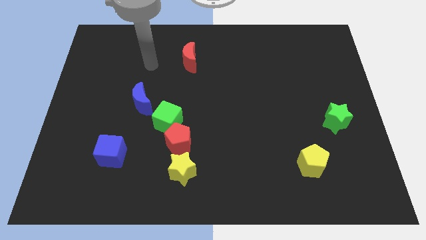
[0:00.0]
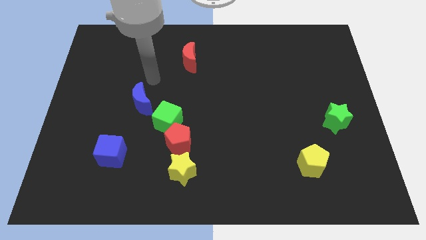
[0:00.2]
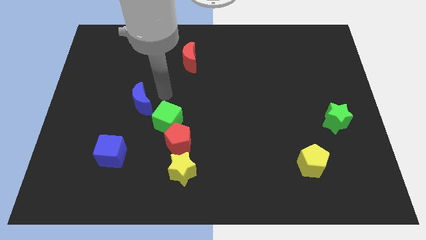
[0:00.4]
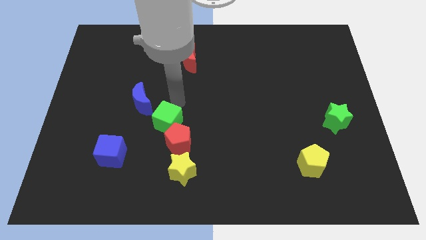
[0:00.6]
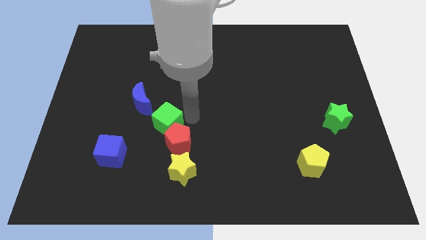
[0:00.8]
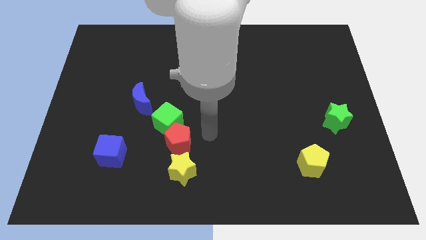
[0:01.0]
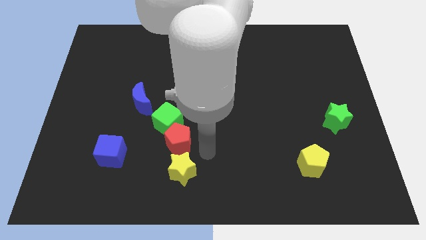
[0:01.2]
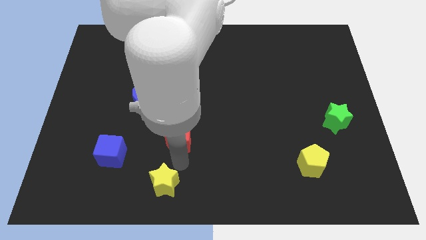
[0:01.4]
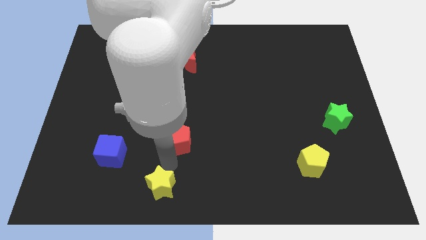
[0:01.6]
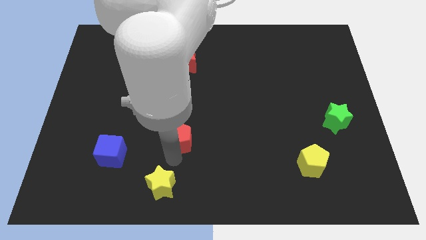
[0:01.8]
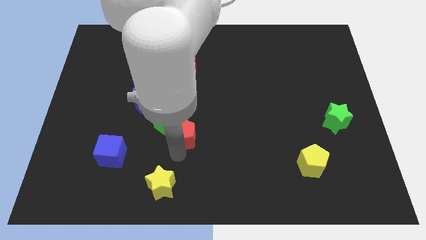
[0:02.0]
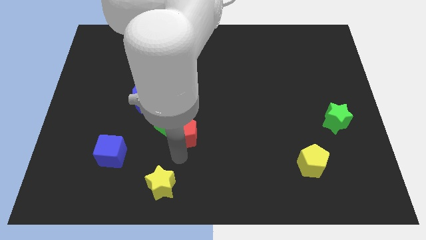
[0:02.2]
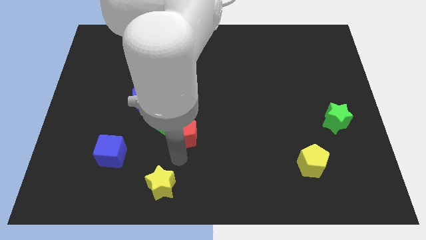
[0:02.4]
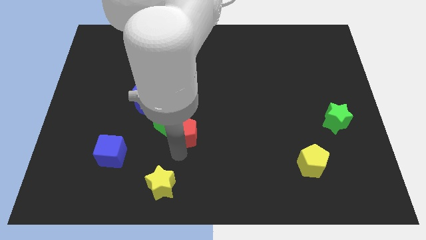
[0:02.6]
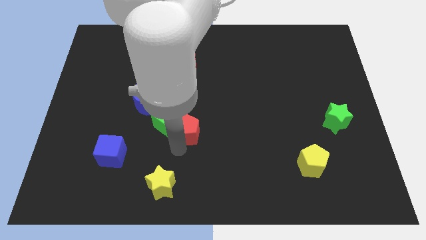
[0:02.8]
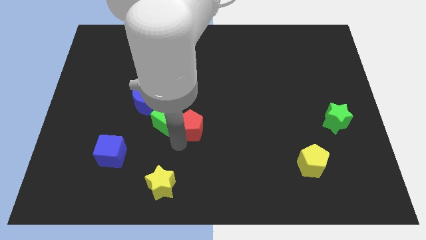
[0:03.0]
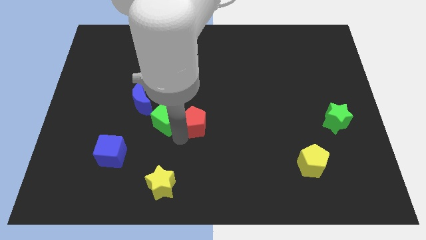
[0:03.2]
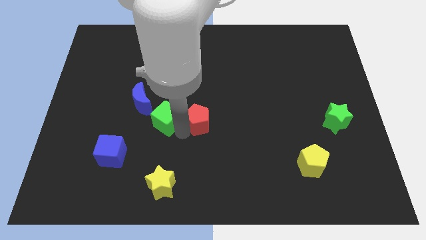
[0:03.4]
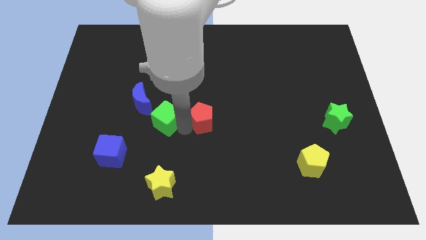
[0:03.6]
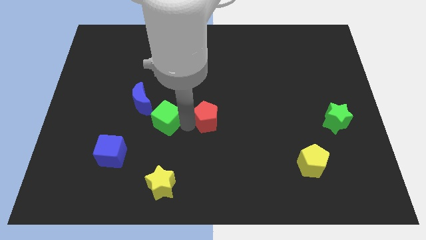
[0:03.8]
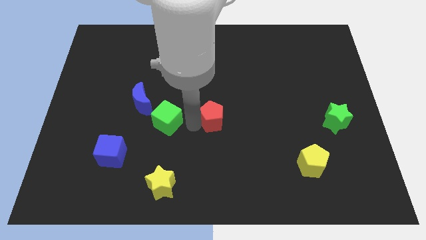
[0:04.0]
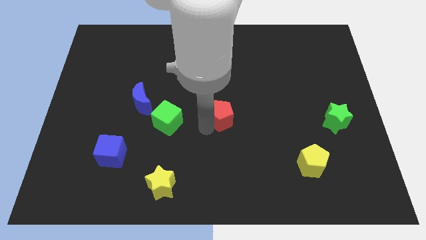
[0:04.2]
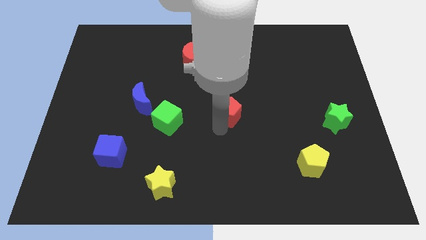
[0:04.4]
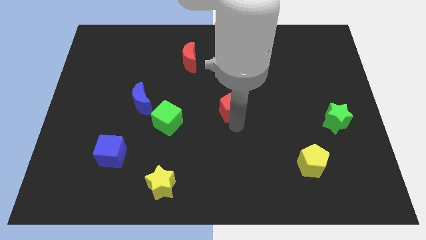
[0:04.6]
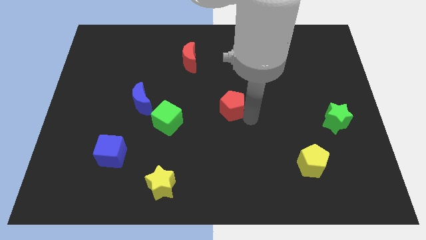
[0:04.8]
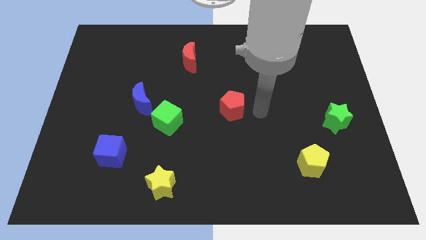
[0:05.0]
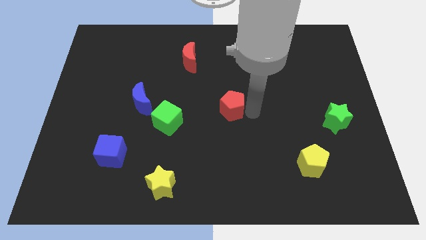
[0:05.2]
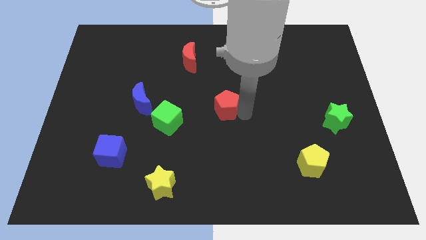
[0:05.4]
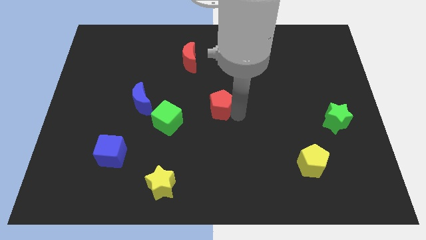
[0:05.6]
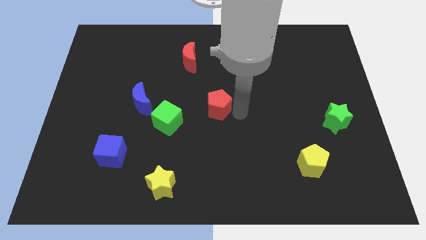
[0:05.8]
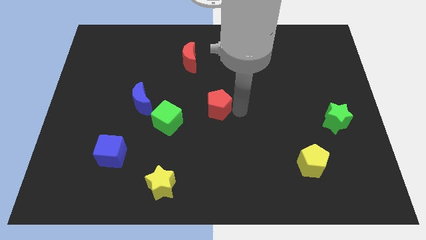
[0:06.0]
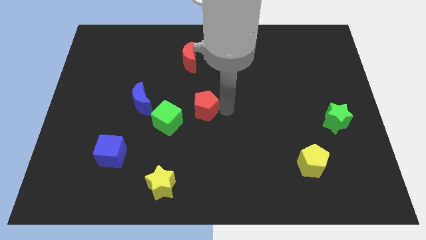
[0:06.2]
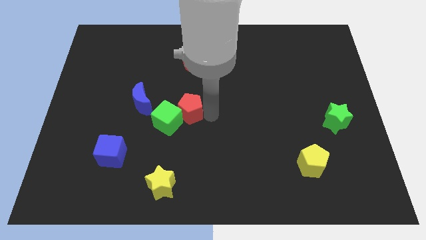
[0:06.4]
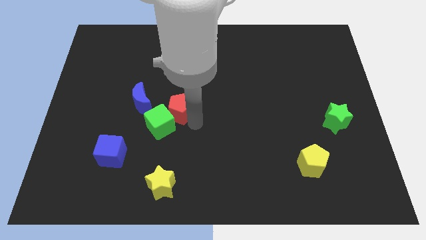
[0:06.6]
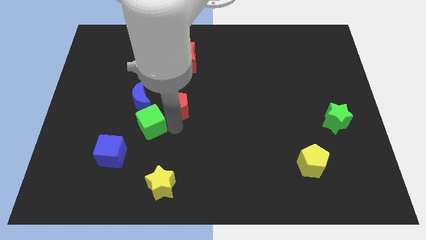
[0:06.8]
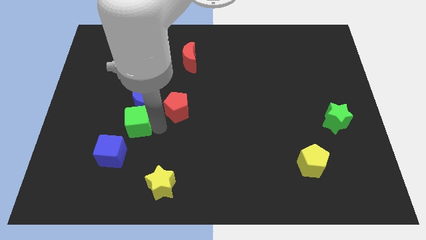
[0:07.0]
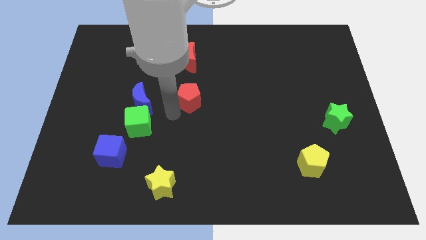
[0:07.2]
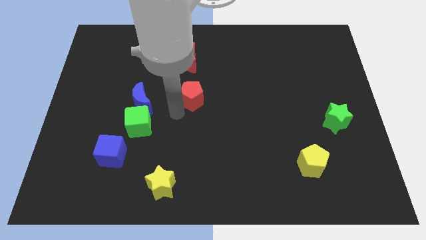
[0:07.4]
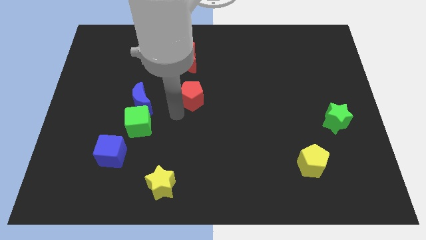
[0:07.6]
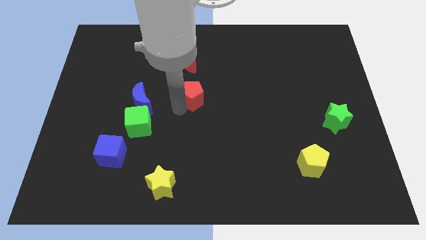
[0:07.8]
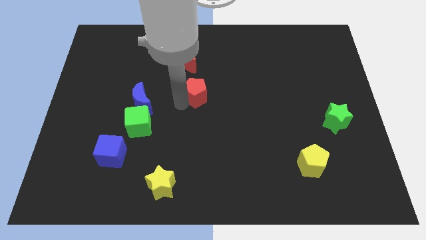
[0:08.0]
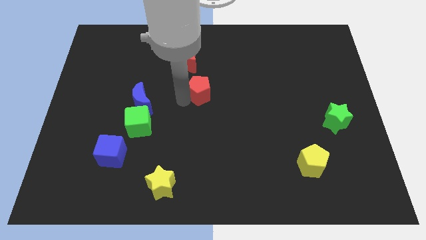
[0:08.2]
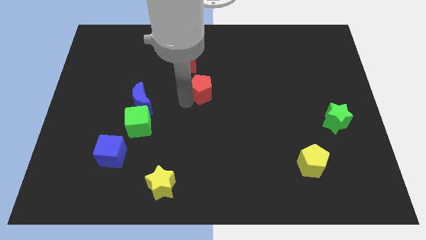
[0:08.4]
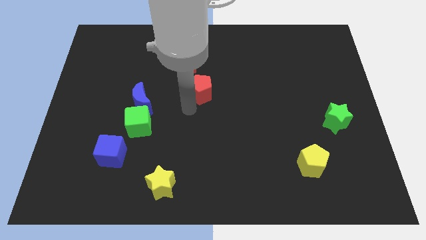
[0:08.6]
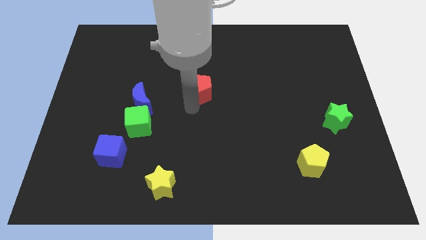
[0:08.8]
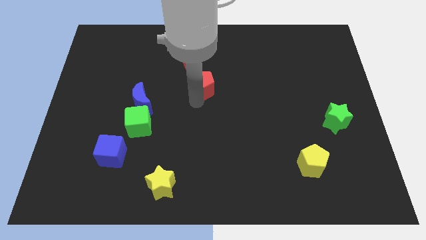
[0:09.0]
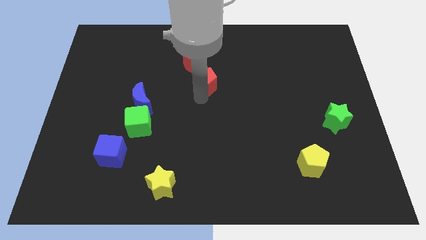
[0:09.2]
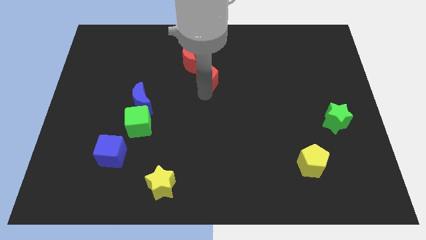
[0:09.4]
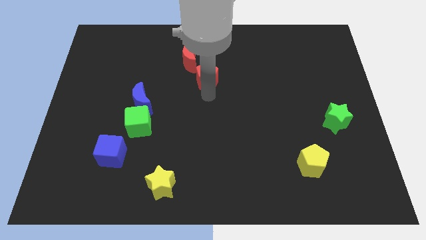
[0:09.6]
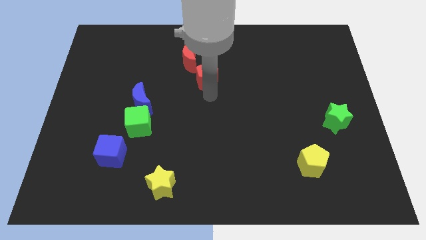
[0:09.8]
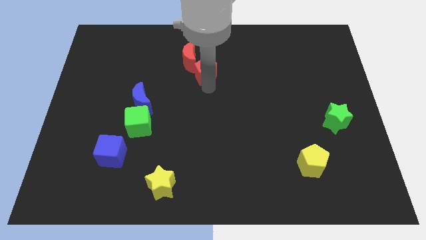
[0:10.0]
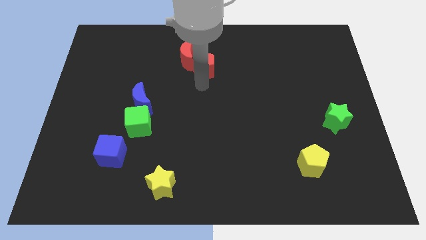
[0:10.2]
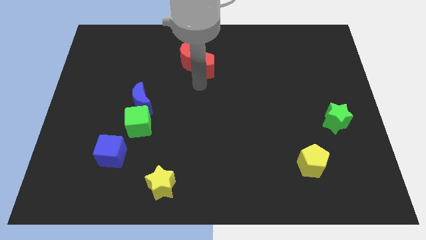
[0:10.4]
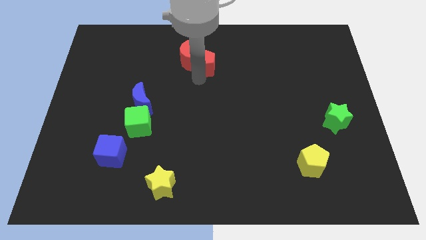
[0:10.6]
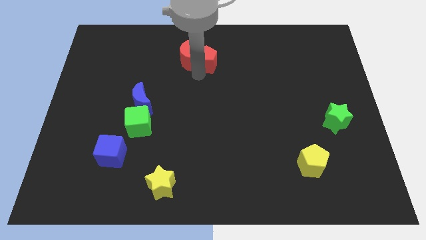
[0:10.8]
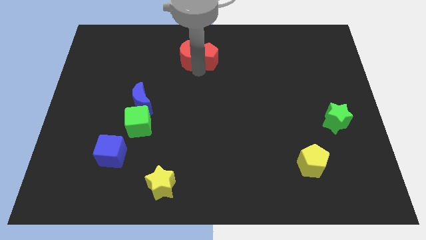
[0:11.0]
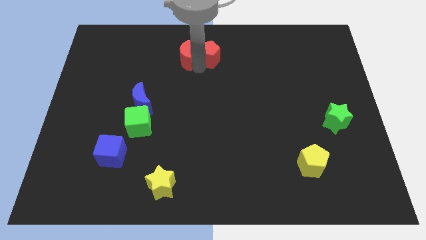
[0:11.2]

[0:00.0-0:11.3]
move the red pentagon to the towards your base
